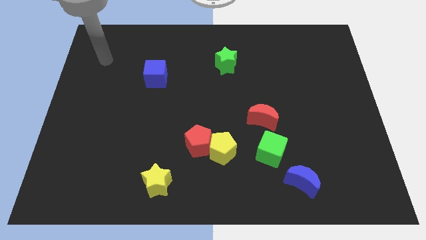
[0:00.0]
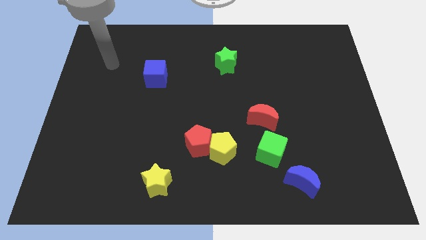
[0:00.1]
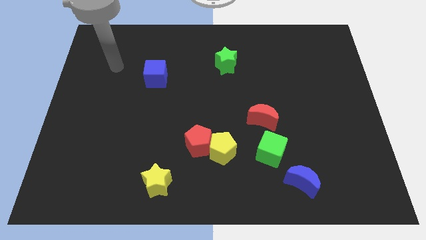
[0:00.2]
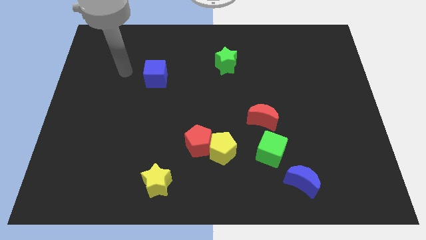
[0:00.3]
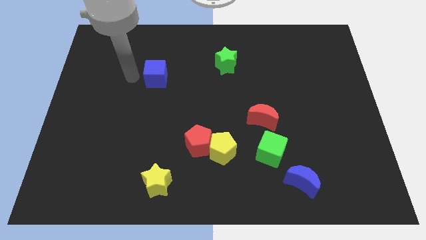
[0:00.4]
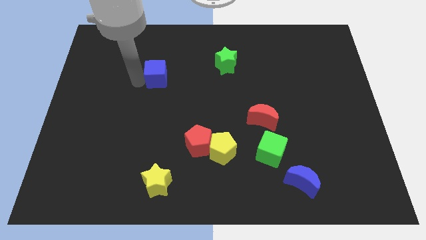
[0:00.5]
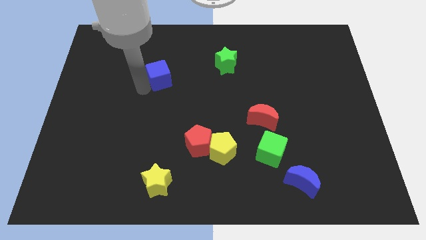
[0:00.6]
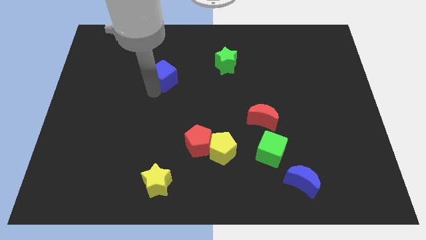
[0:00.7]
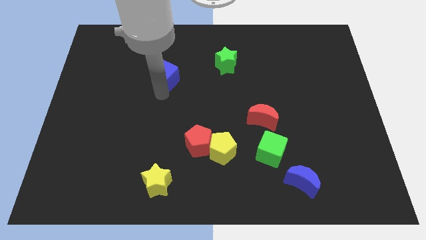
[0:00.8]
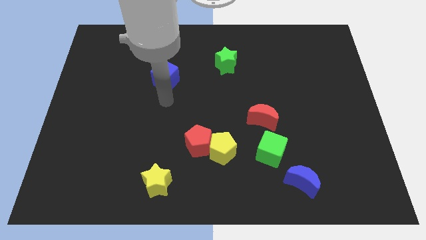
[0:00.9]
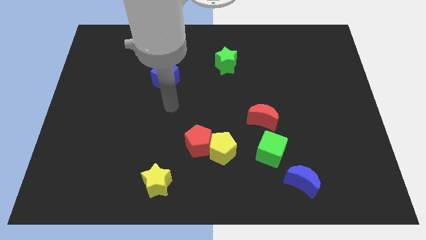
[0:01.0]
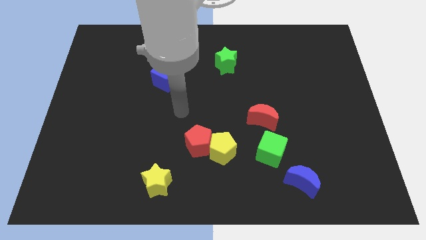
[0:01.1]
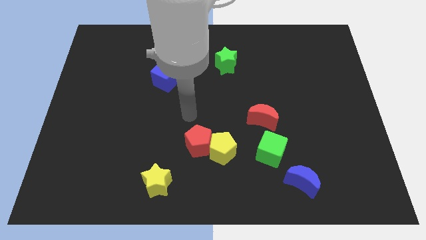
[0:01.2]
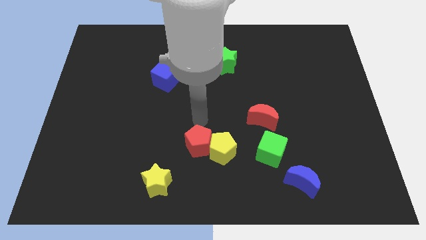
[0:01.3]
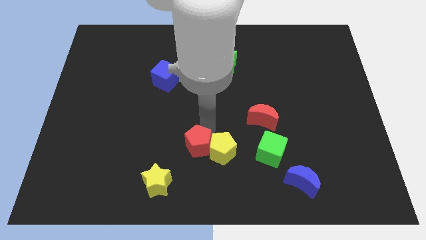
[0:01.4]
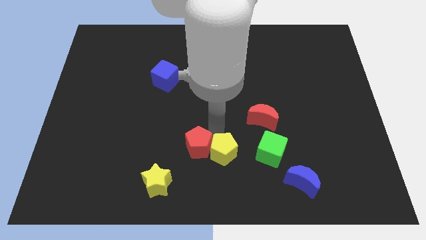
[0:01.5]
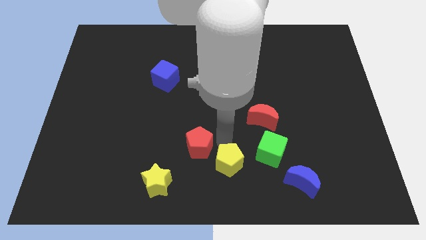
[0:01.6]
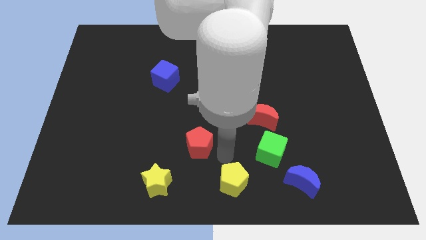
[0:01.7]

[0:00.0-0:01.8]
move the red pentagon away from the yellow pentagon

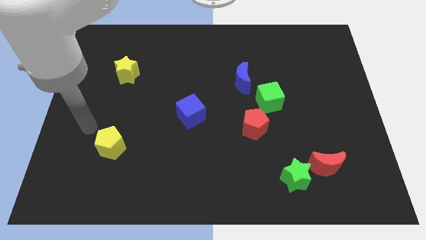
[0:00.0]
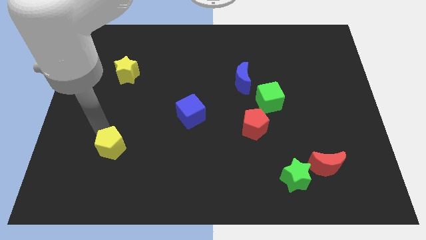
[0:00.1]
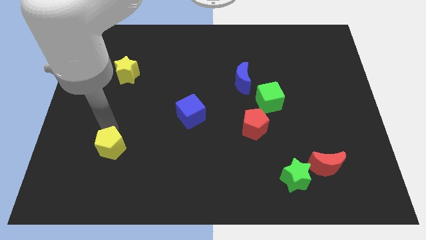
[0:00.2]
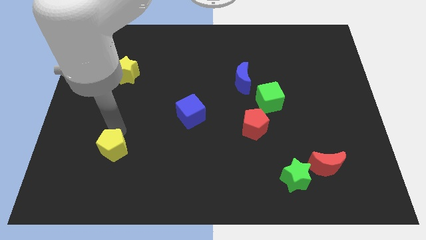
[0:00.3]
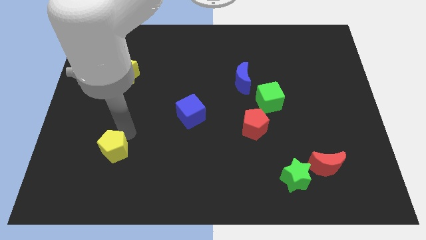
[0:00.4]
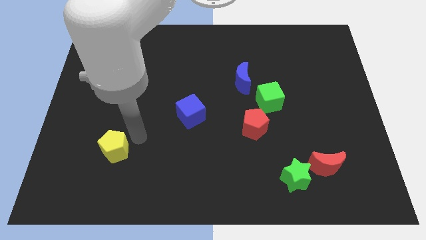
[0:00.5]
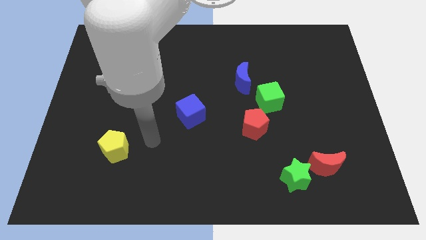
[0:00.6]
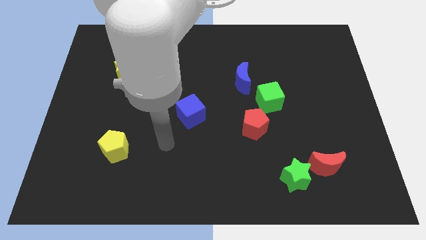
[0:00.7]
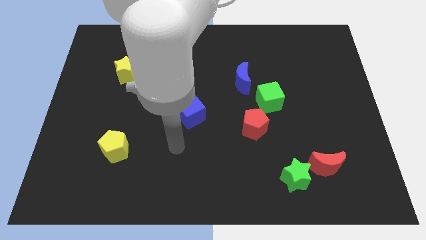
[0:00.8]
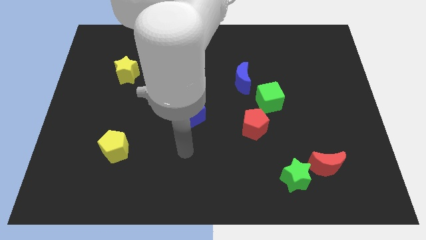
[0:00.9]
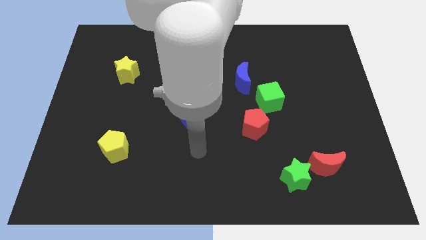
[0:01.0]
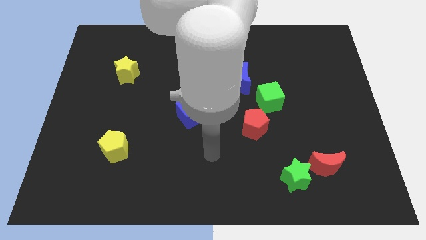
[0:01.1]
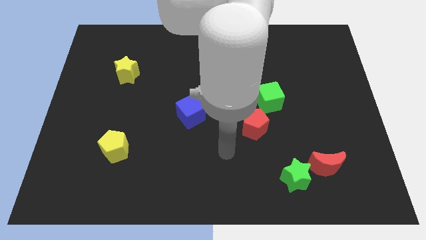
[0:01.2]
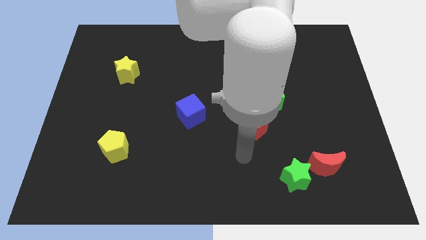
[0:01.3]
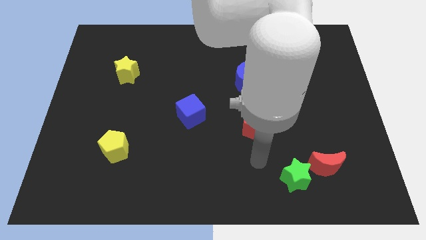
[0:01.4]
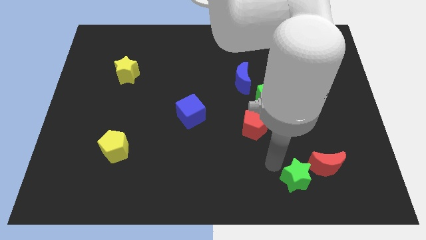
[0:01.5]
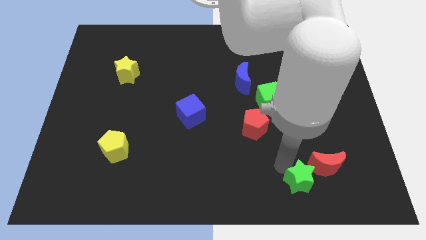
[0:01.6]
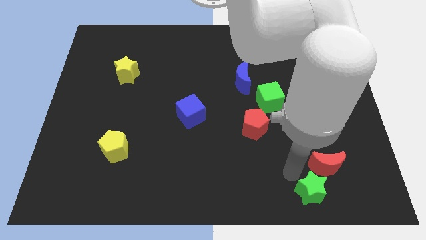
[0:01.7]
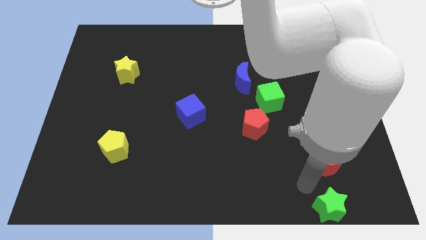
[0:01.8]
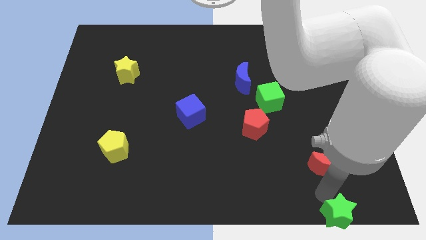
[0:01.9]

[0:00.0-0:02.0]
move the red moon away from the green star

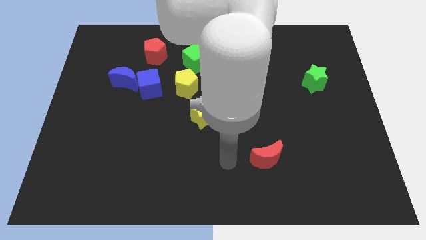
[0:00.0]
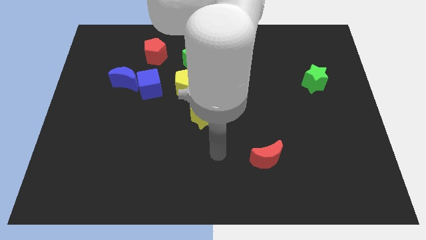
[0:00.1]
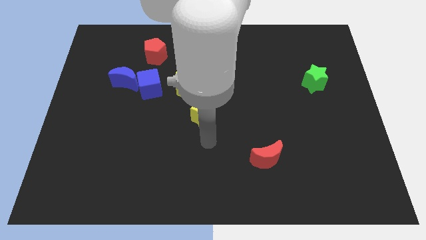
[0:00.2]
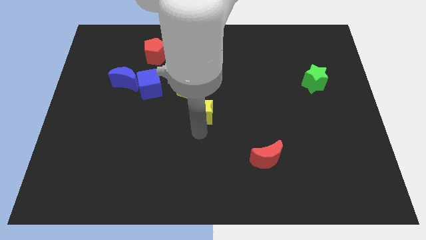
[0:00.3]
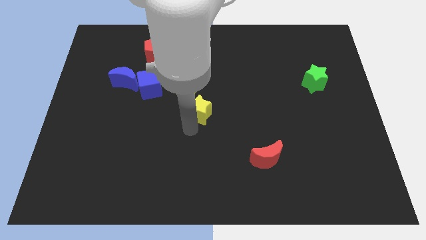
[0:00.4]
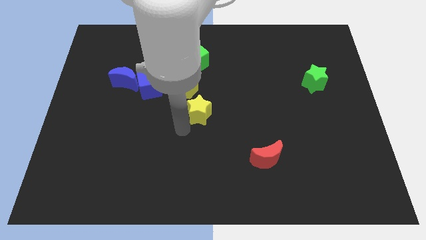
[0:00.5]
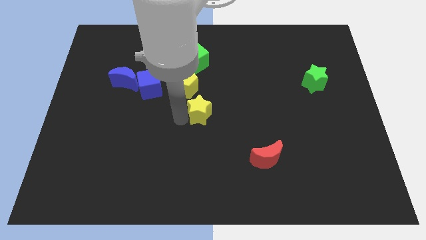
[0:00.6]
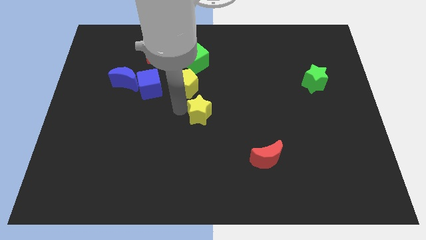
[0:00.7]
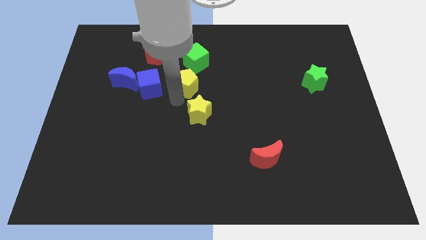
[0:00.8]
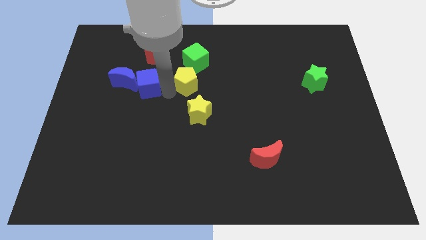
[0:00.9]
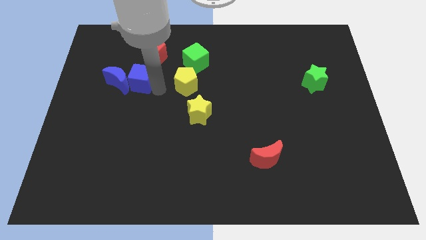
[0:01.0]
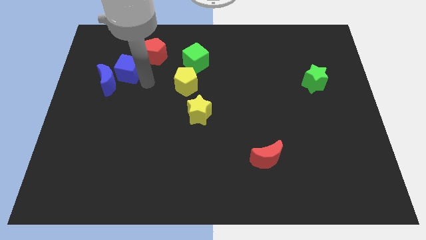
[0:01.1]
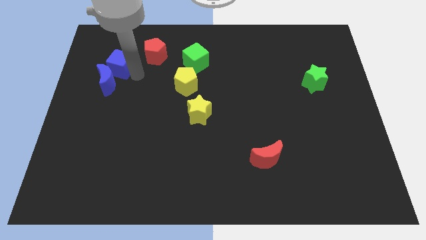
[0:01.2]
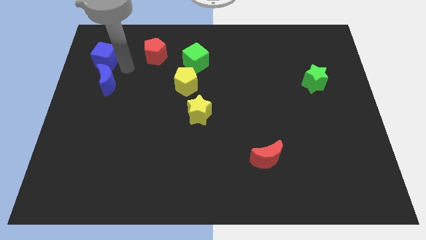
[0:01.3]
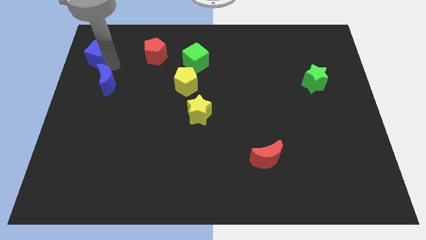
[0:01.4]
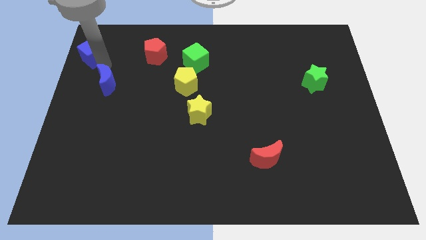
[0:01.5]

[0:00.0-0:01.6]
separate the blue moon from the blue cube

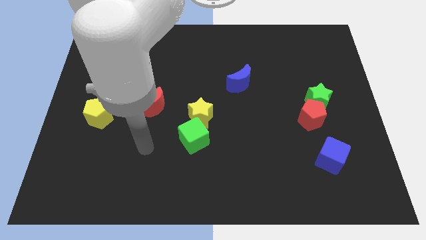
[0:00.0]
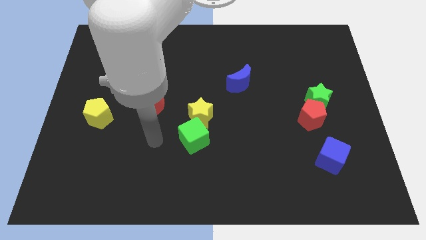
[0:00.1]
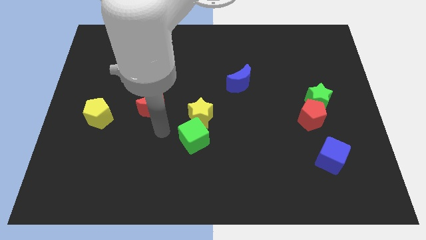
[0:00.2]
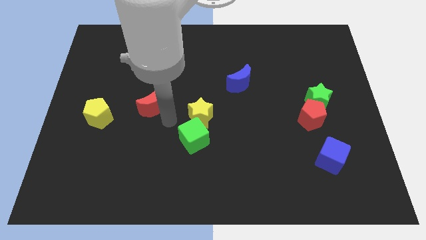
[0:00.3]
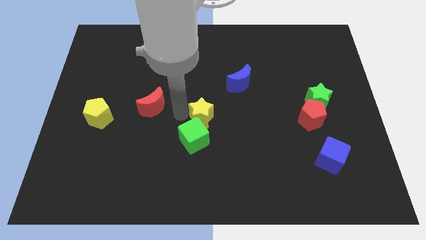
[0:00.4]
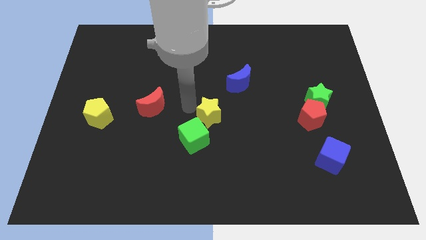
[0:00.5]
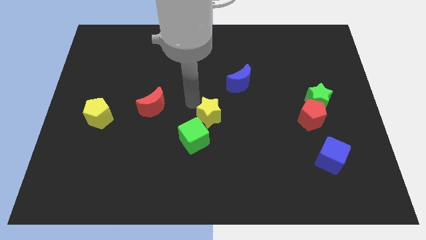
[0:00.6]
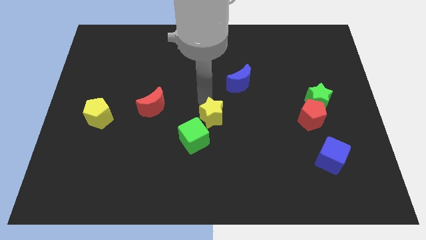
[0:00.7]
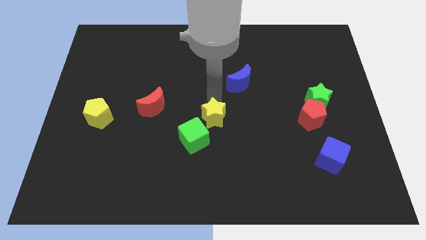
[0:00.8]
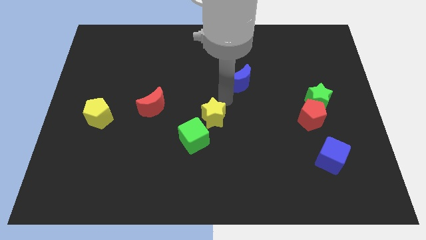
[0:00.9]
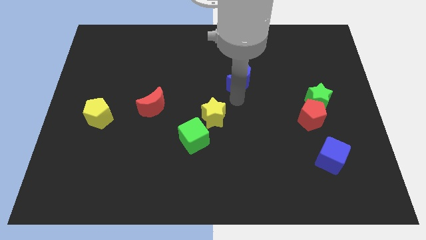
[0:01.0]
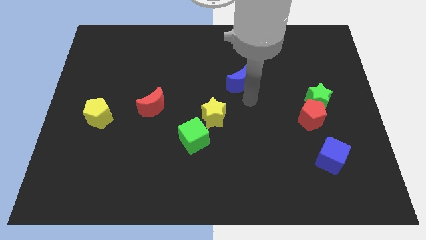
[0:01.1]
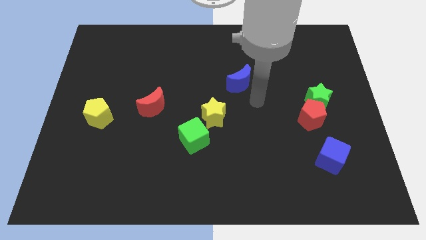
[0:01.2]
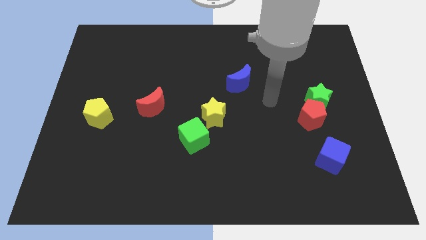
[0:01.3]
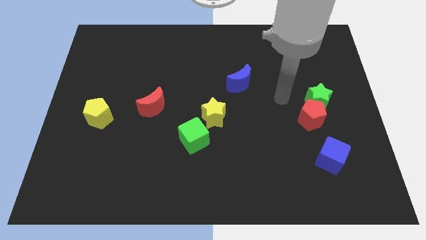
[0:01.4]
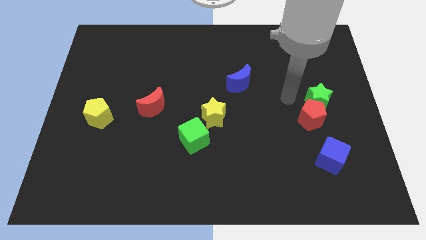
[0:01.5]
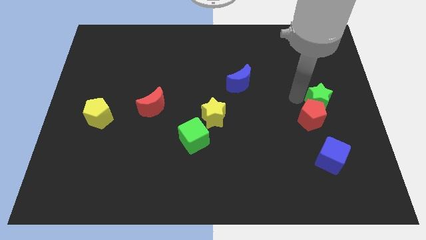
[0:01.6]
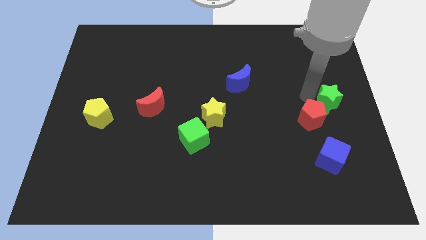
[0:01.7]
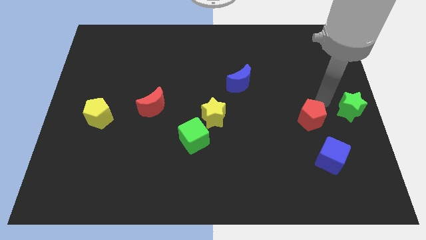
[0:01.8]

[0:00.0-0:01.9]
move the red pentagon away from the green star

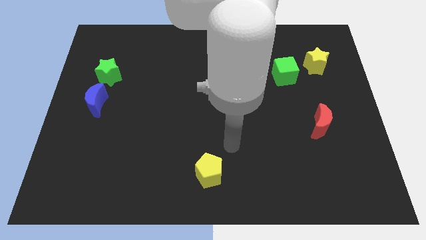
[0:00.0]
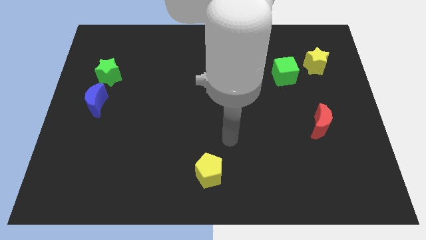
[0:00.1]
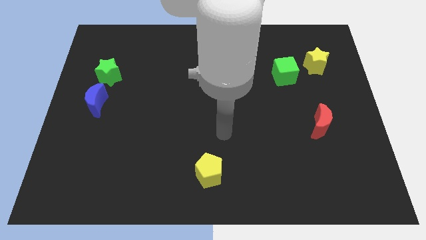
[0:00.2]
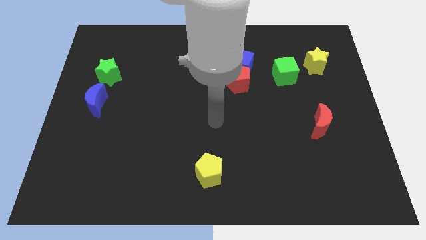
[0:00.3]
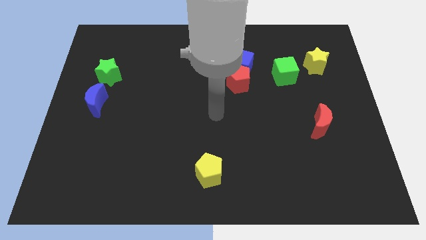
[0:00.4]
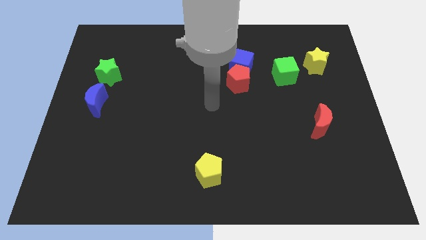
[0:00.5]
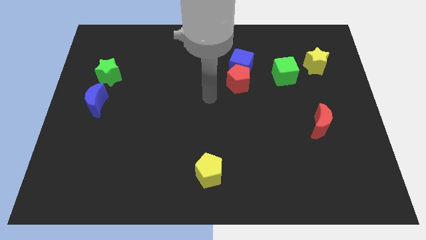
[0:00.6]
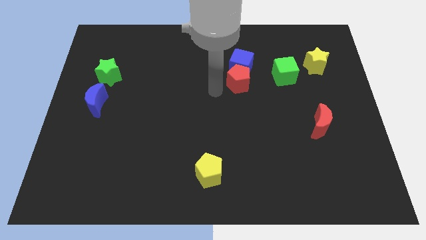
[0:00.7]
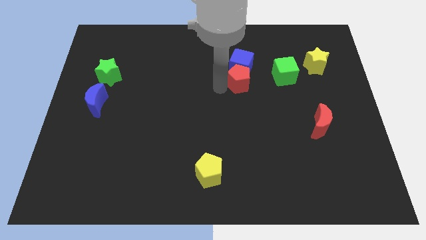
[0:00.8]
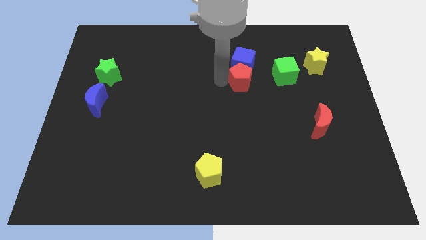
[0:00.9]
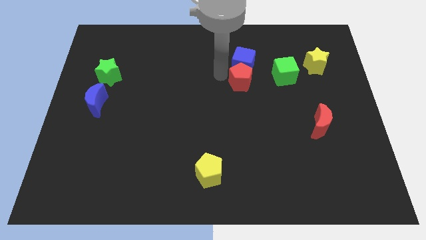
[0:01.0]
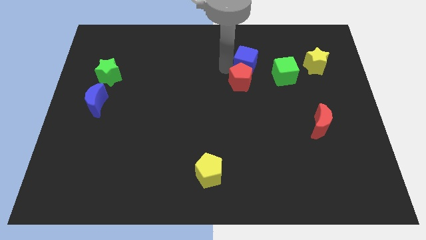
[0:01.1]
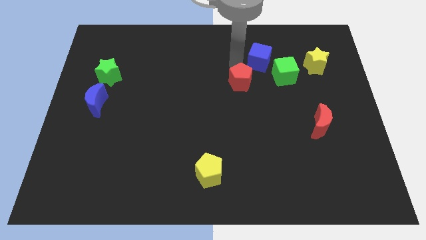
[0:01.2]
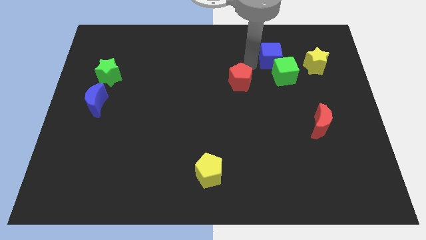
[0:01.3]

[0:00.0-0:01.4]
pull the red pentagon apart from the blue cube

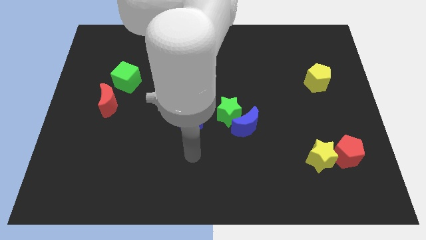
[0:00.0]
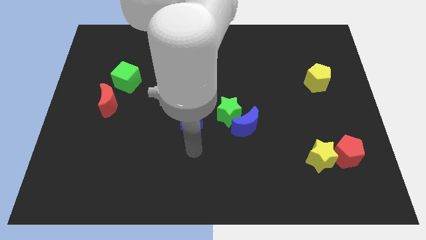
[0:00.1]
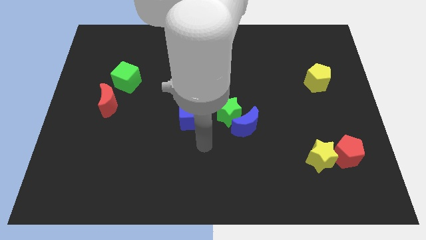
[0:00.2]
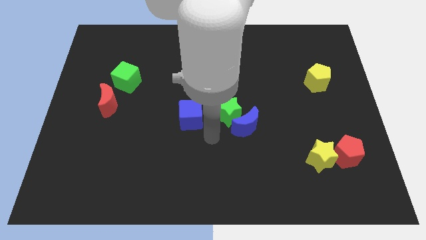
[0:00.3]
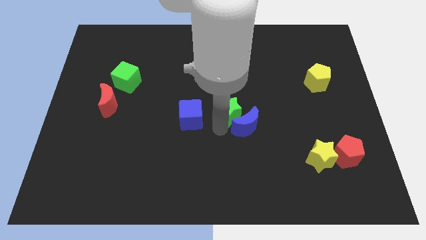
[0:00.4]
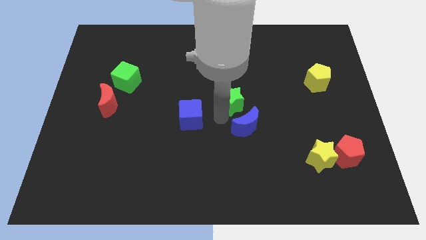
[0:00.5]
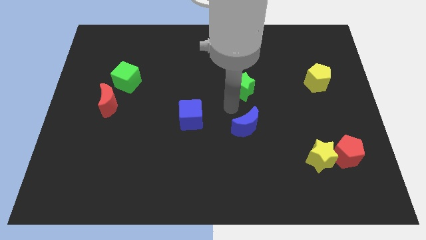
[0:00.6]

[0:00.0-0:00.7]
pull the blue moon apart from the green star
